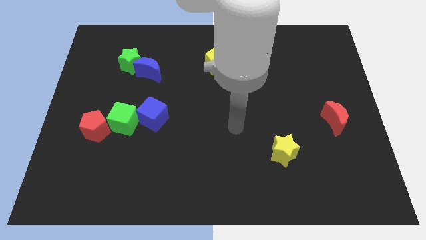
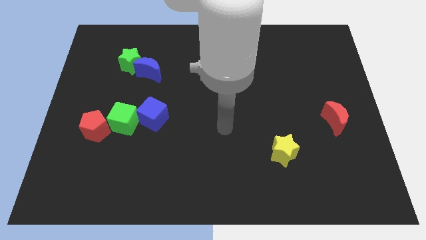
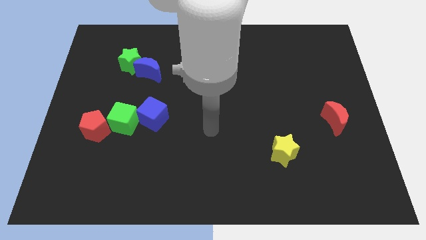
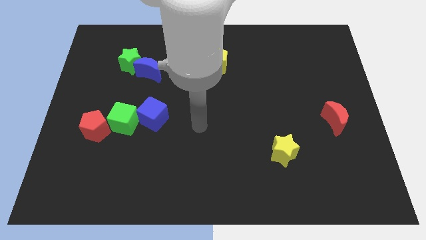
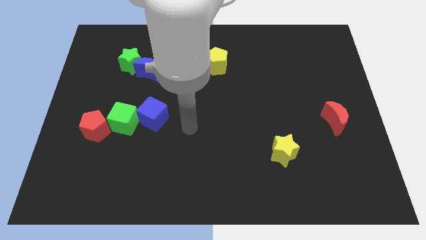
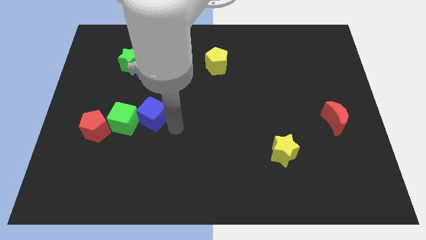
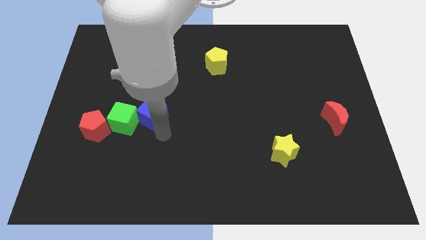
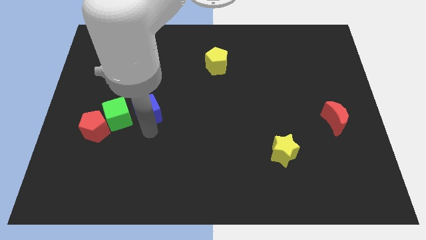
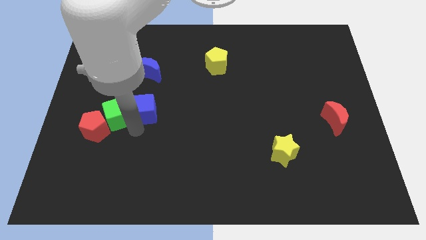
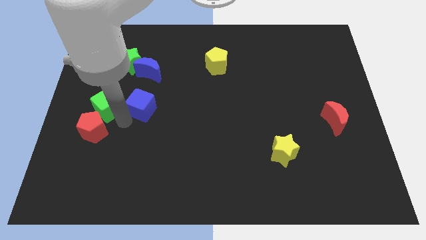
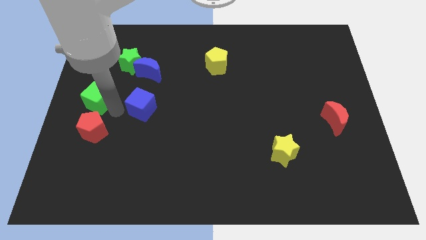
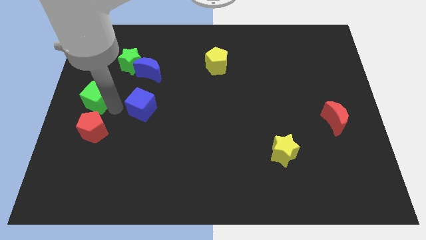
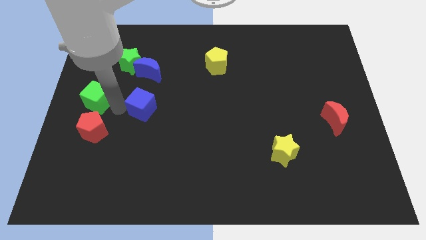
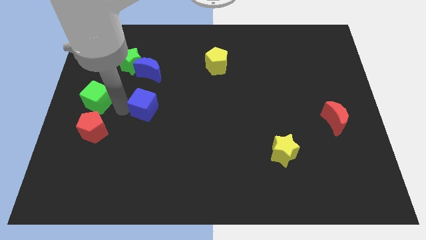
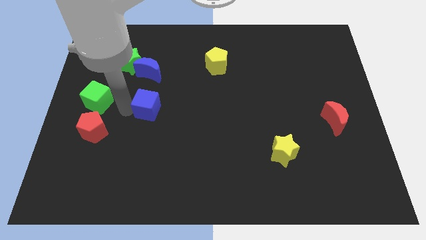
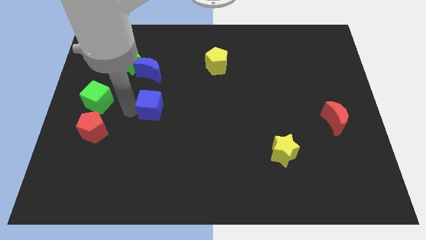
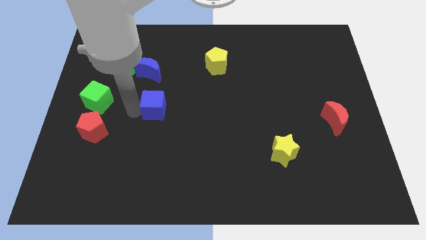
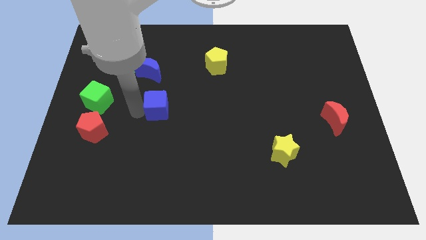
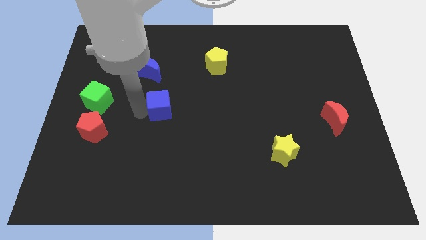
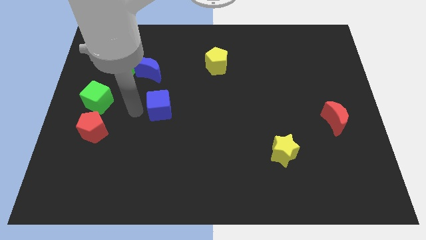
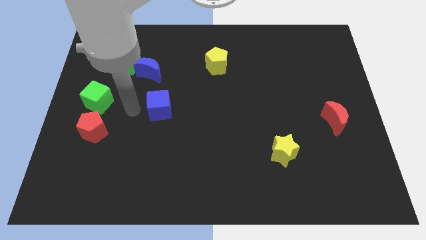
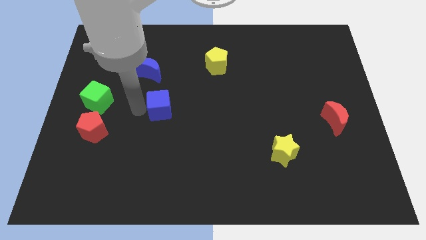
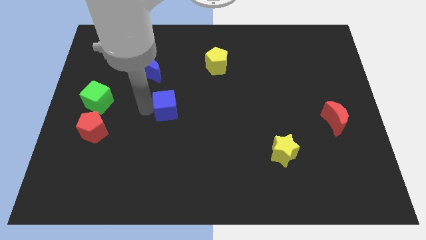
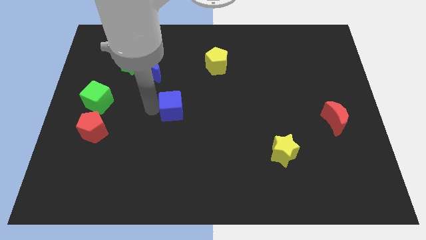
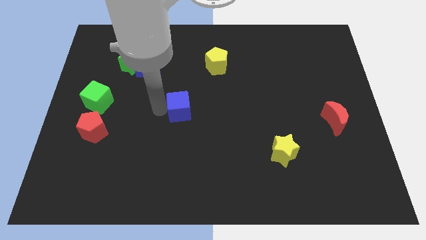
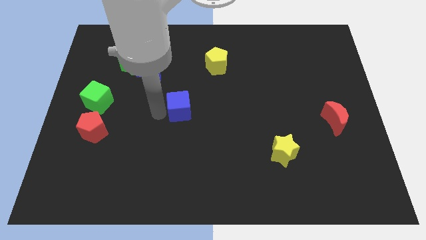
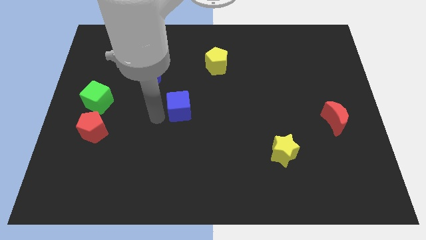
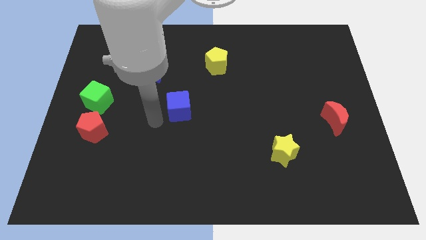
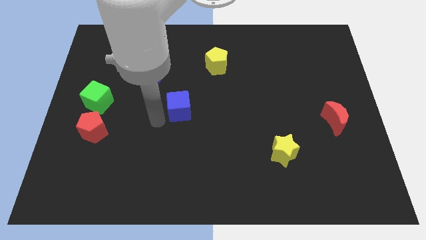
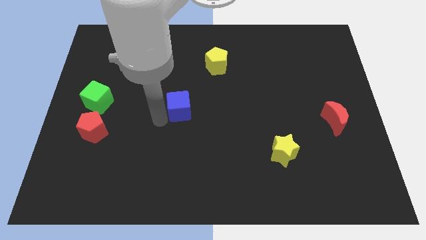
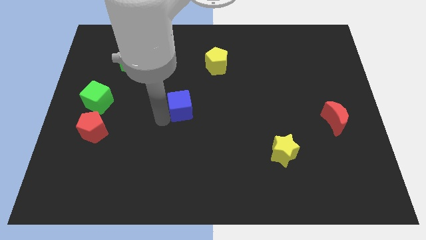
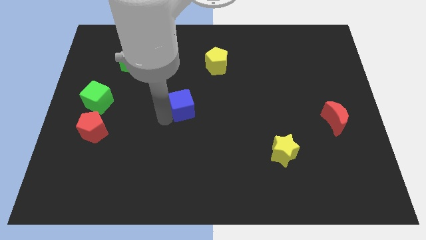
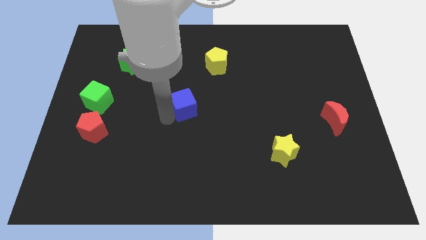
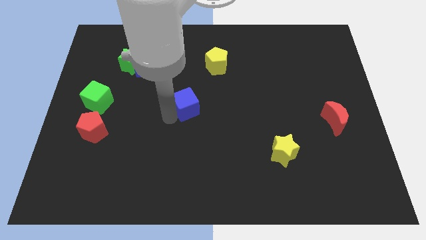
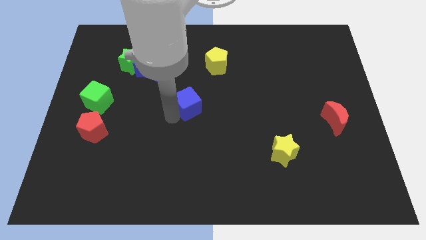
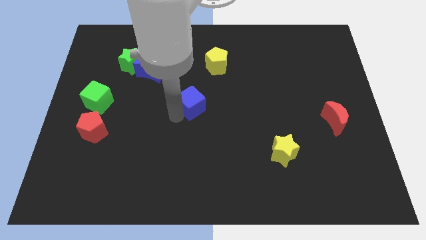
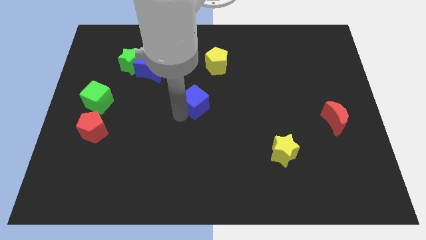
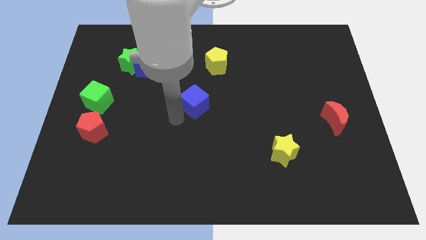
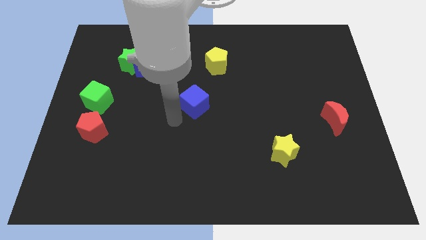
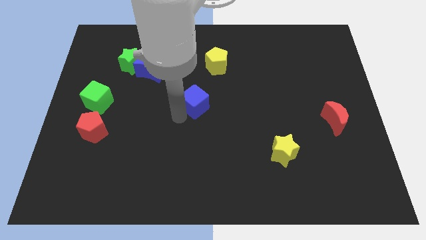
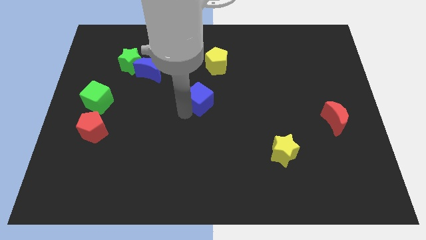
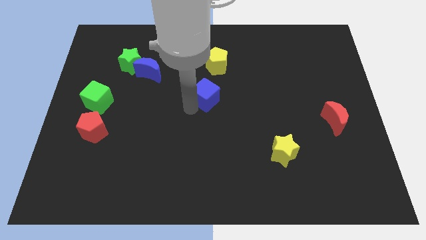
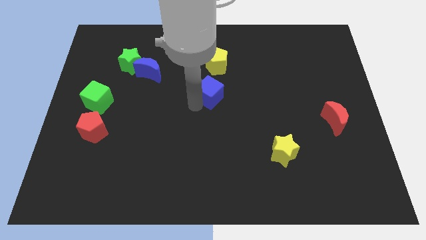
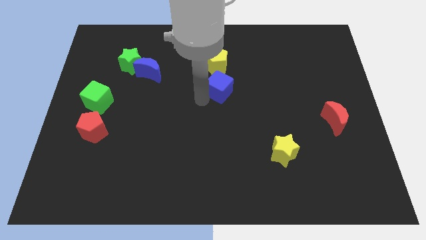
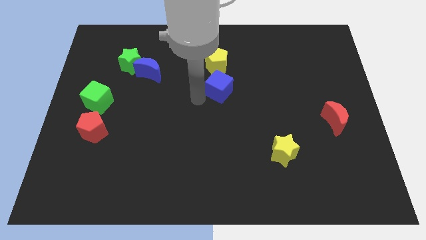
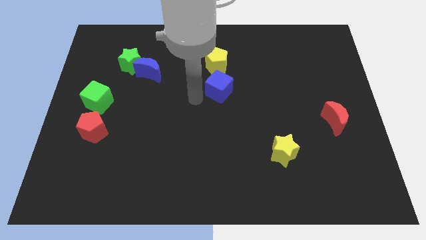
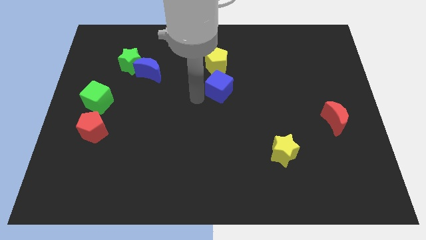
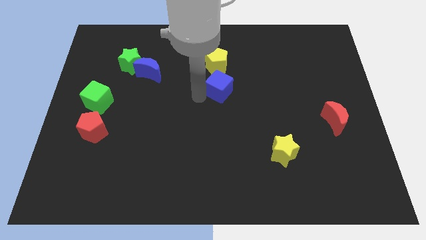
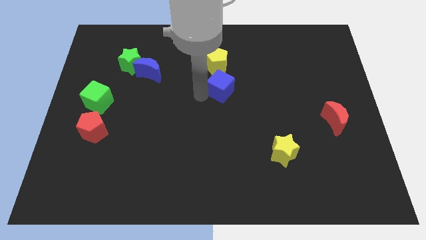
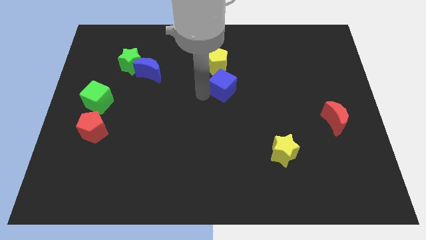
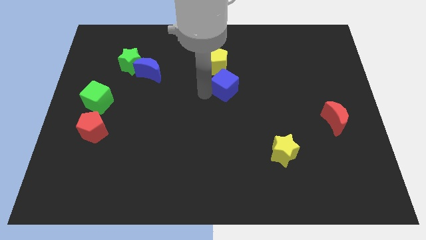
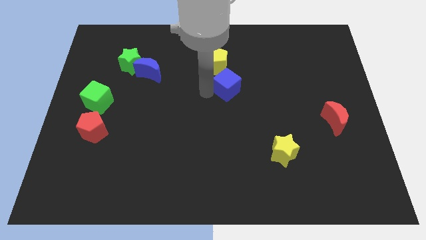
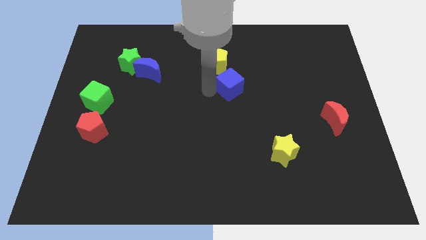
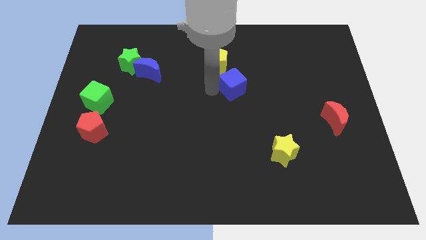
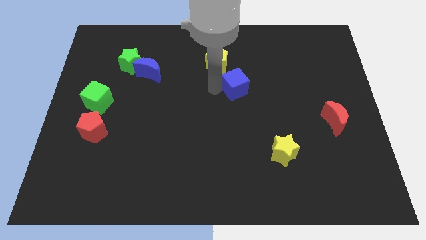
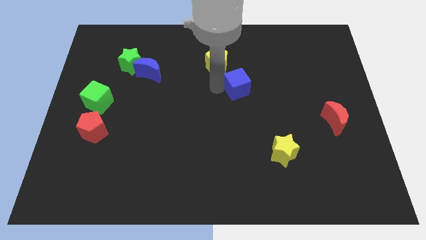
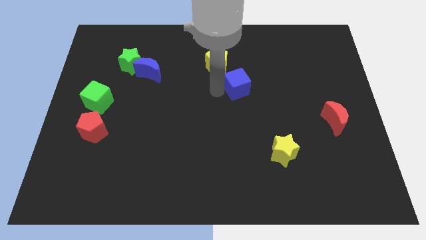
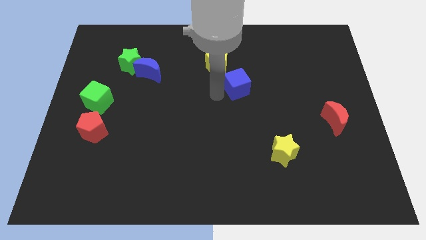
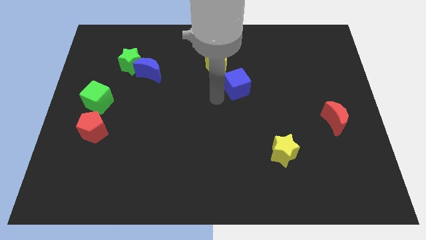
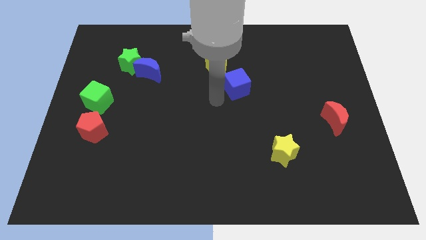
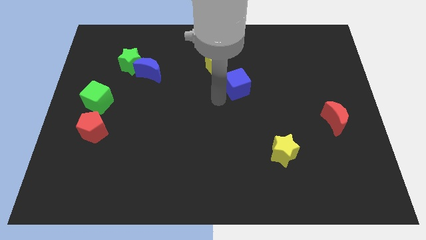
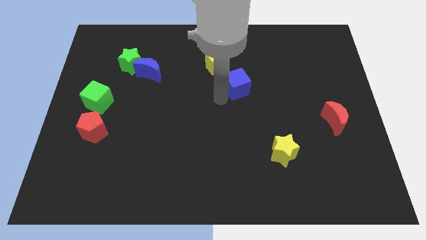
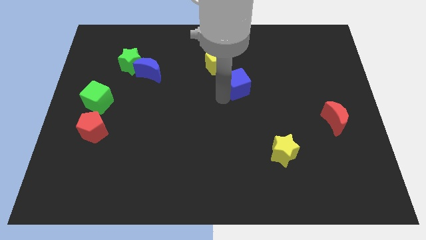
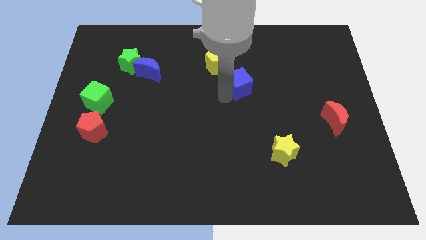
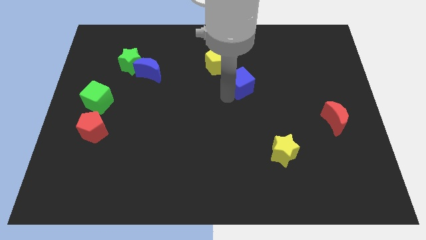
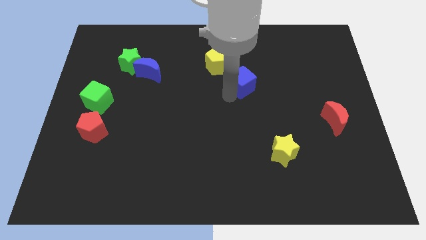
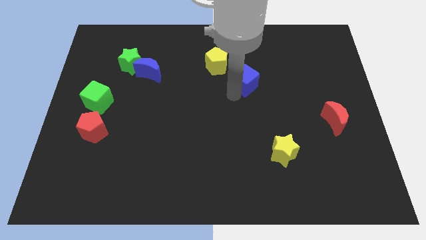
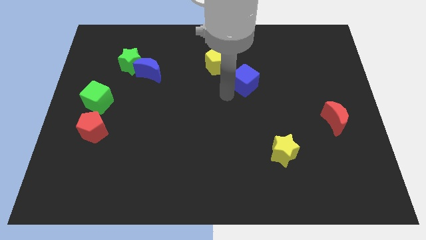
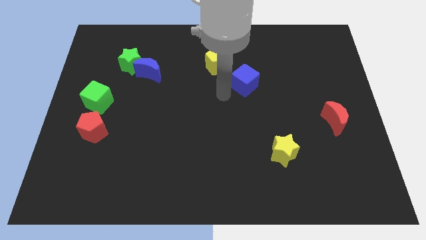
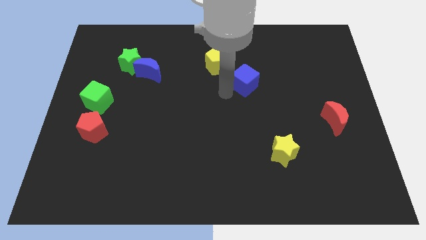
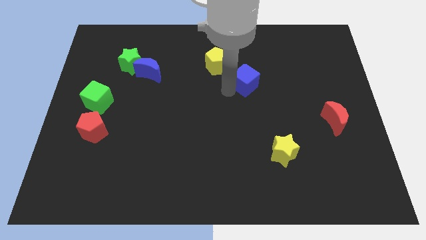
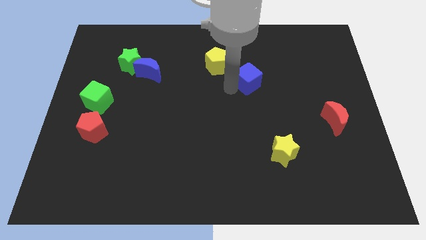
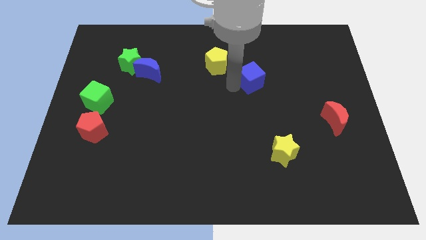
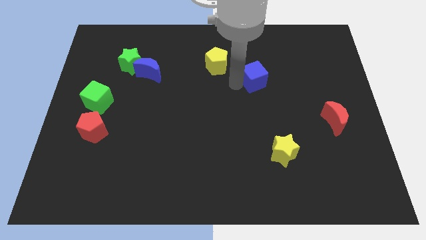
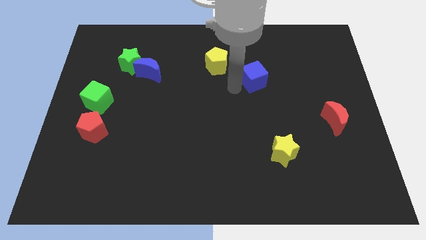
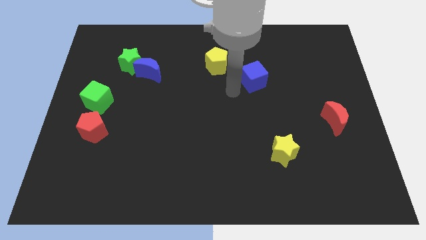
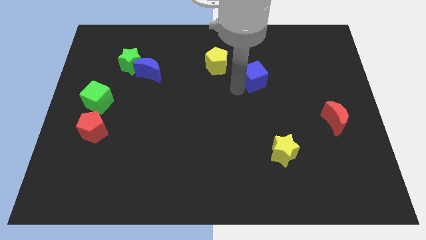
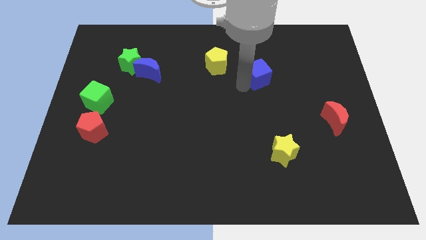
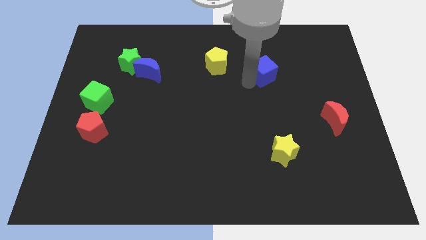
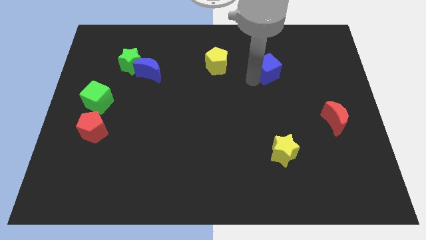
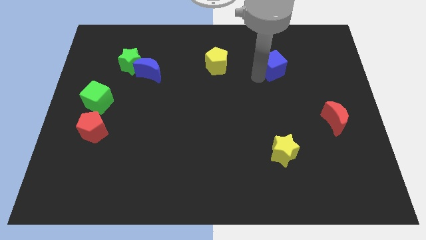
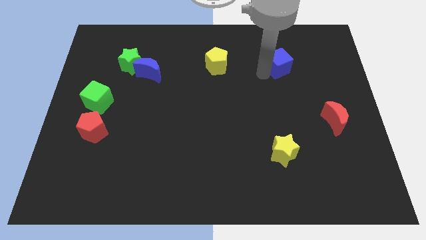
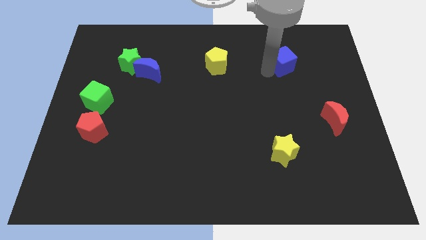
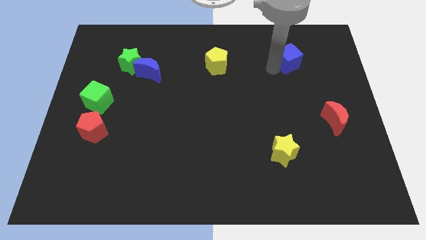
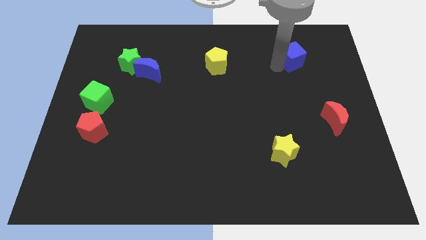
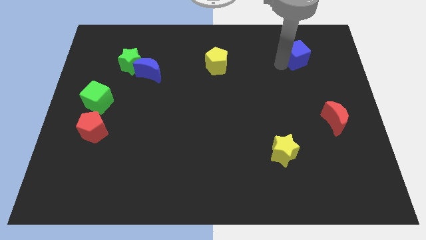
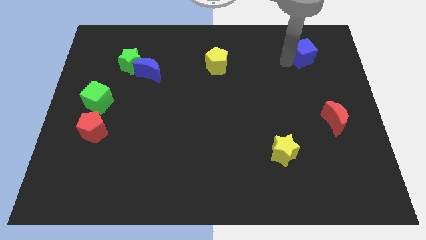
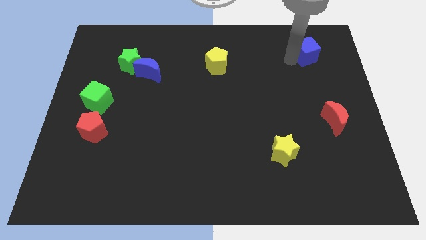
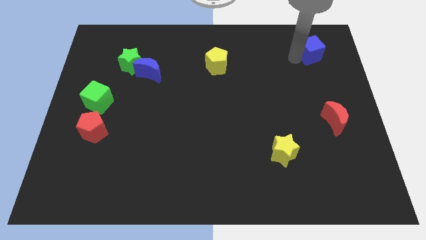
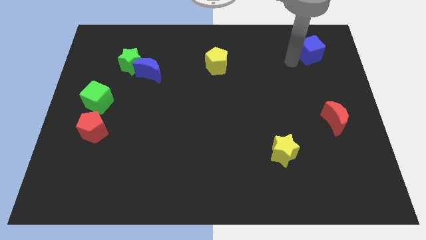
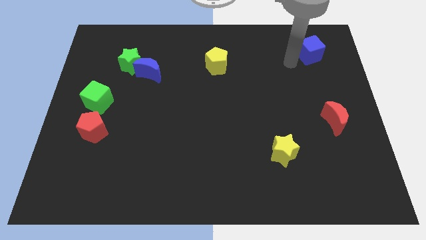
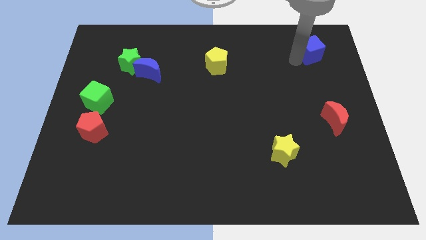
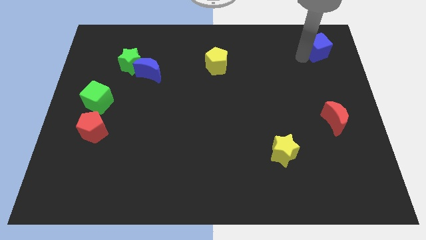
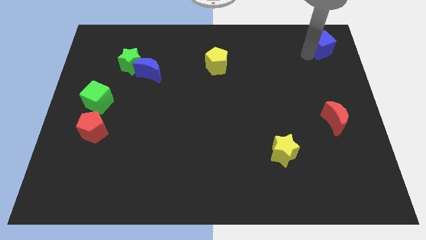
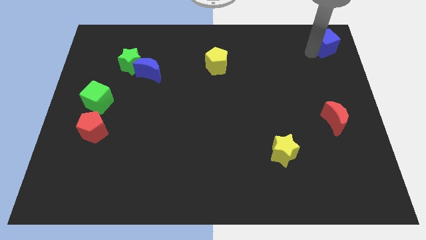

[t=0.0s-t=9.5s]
move the blue cube to the top right
